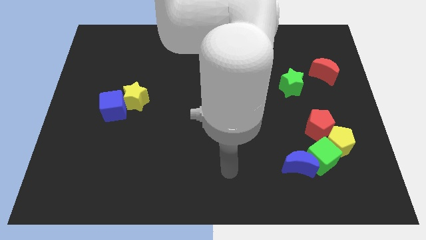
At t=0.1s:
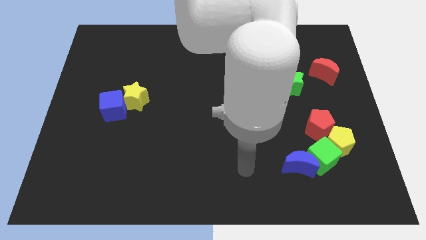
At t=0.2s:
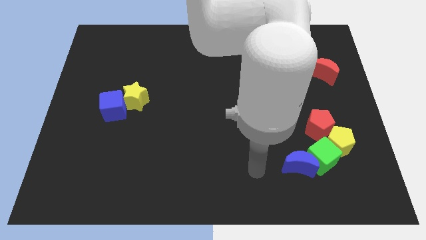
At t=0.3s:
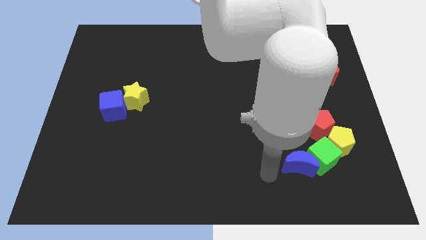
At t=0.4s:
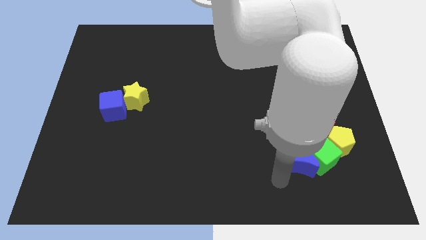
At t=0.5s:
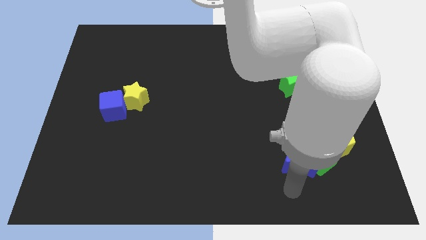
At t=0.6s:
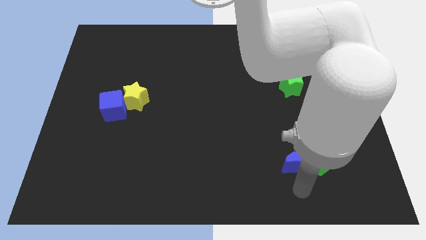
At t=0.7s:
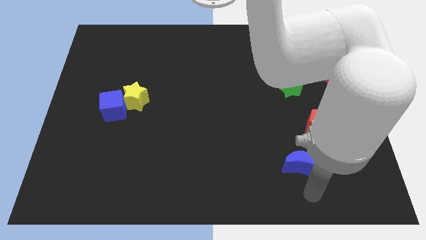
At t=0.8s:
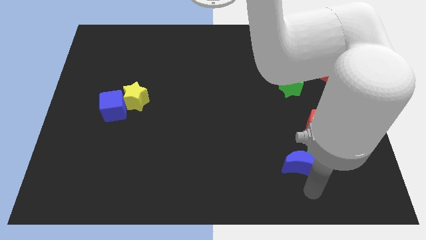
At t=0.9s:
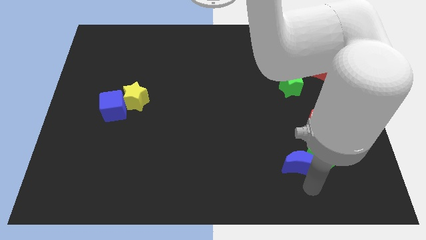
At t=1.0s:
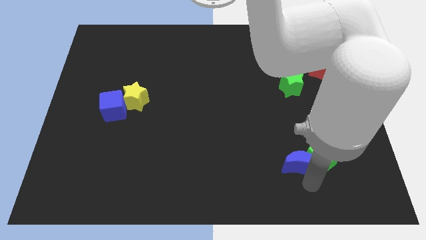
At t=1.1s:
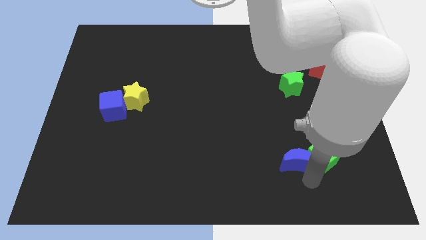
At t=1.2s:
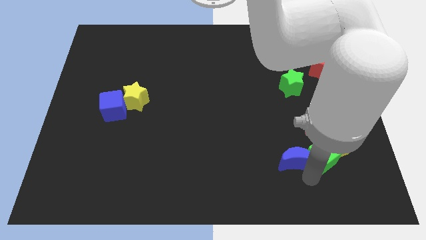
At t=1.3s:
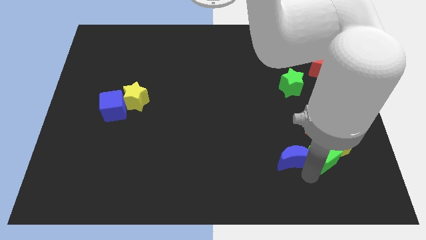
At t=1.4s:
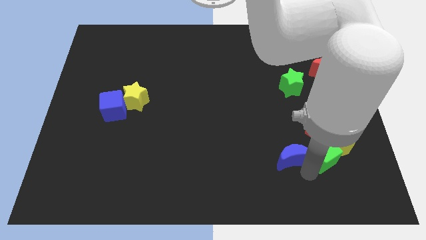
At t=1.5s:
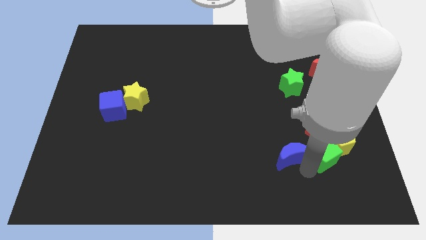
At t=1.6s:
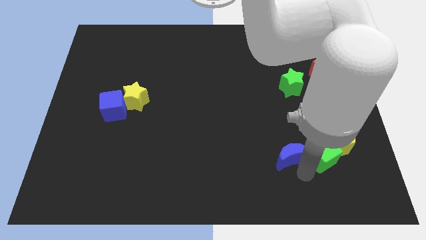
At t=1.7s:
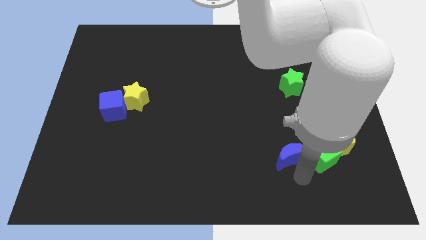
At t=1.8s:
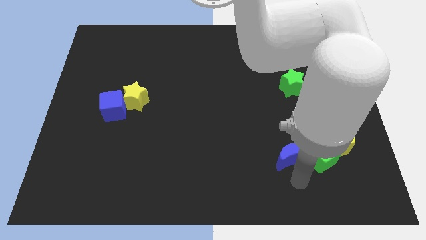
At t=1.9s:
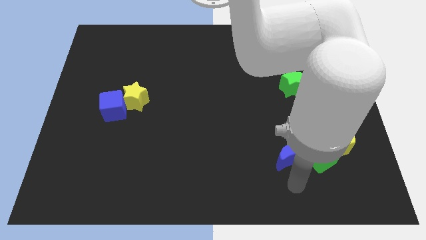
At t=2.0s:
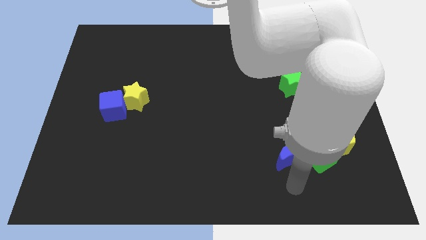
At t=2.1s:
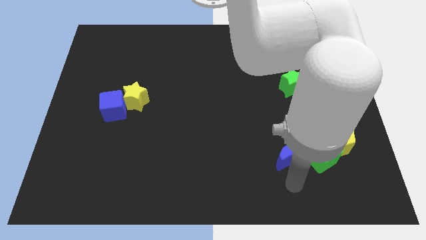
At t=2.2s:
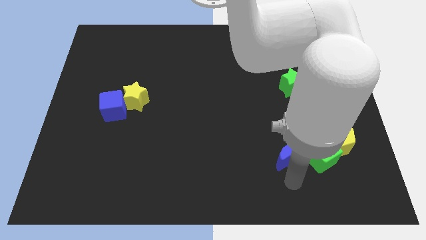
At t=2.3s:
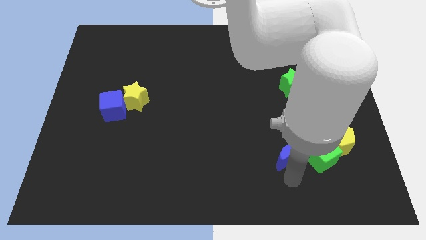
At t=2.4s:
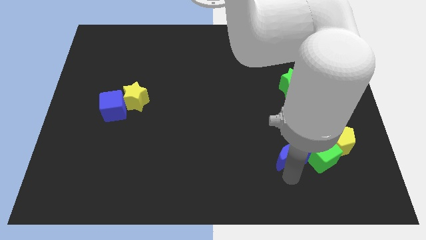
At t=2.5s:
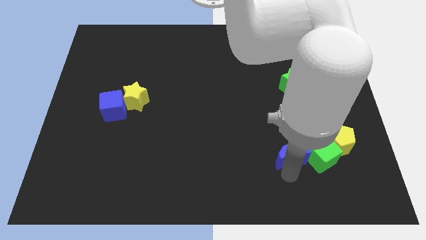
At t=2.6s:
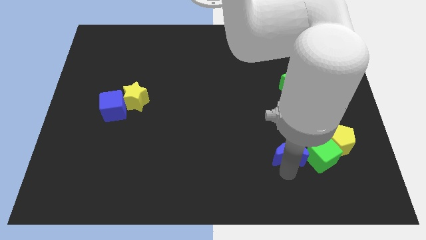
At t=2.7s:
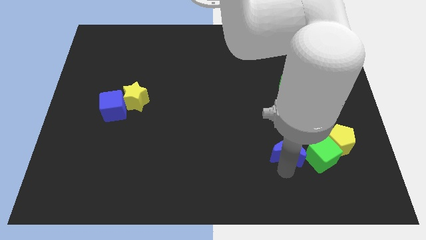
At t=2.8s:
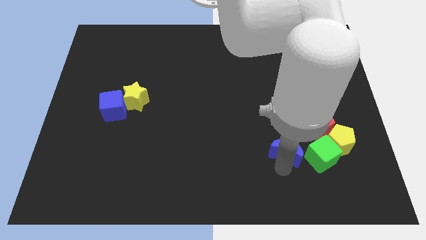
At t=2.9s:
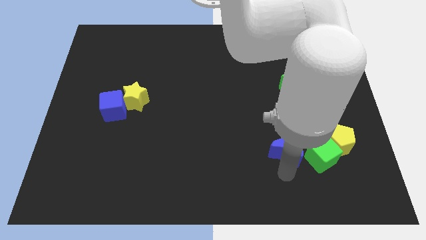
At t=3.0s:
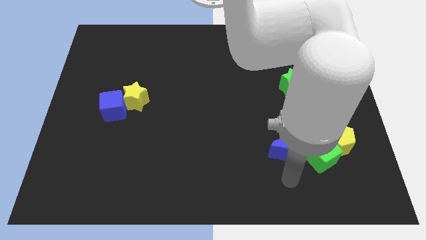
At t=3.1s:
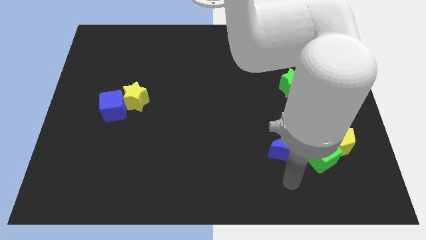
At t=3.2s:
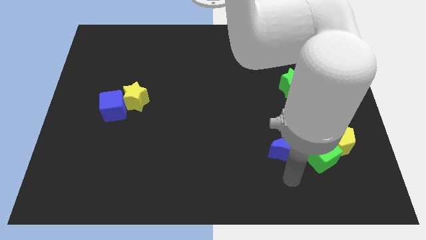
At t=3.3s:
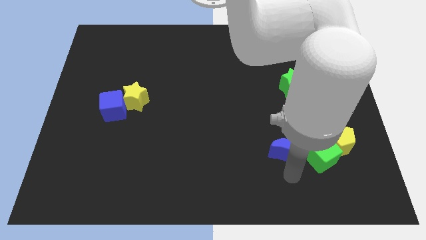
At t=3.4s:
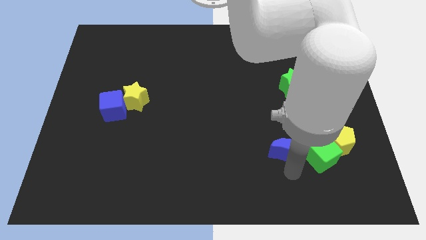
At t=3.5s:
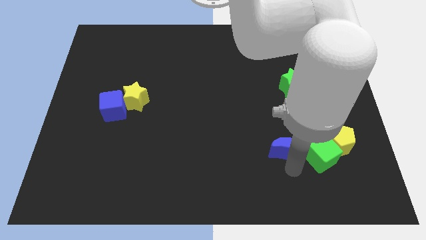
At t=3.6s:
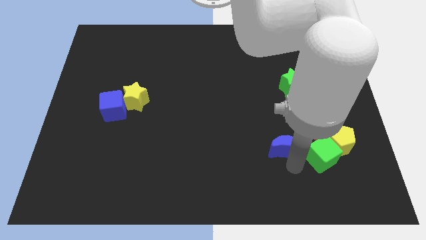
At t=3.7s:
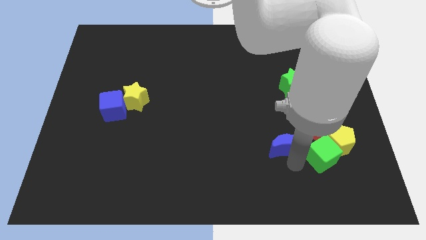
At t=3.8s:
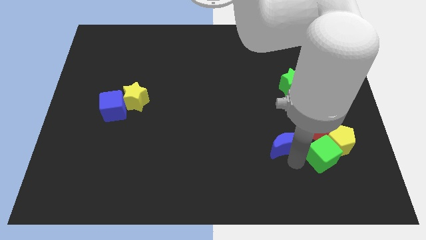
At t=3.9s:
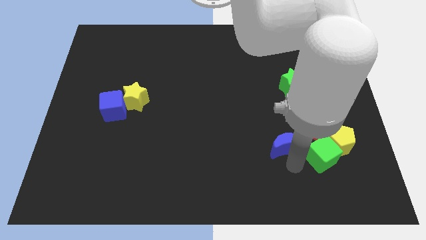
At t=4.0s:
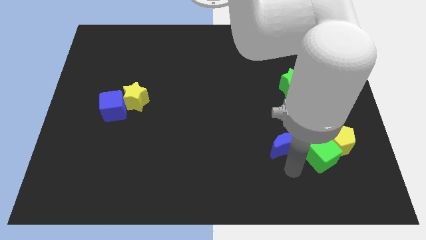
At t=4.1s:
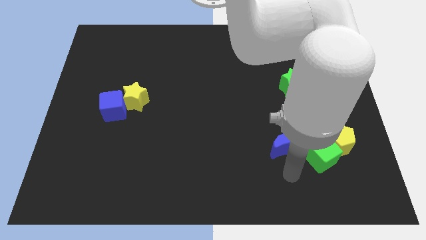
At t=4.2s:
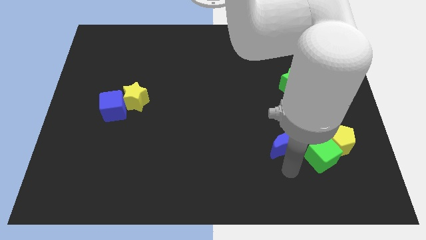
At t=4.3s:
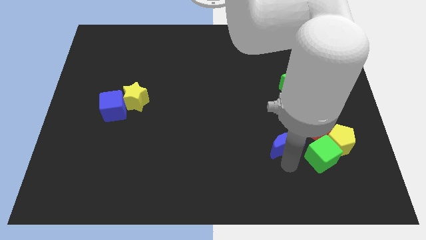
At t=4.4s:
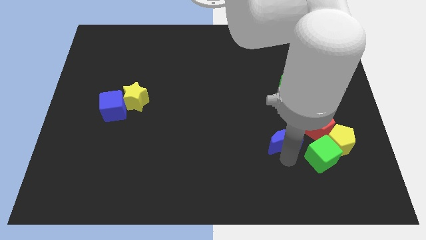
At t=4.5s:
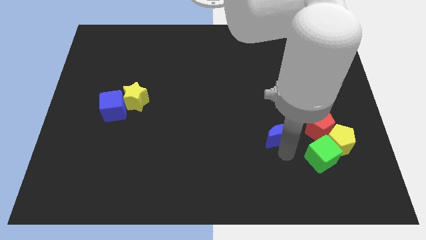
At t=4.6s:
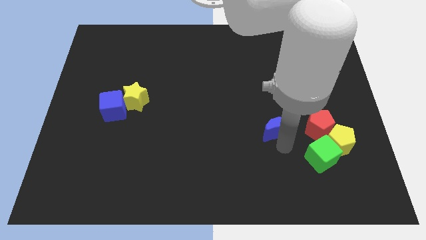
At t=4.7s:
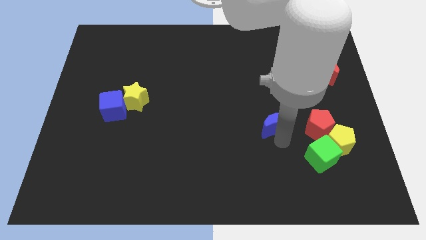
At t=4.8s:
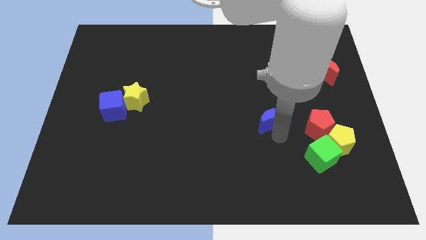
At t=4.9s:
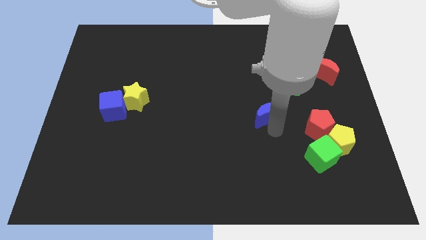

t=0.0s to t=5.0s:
slide the blue moon to the bottom left side of the green star

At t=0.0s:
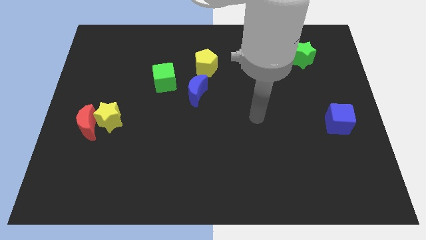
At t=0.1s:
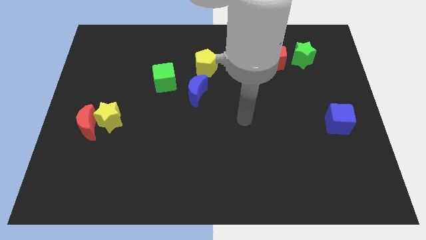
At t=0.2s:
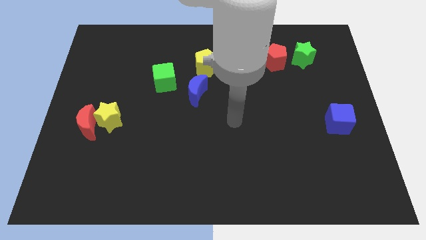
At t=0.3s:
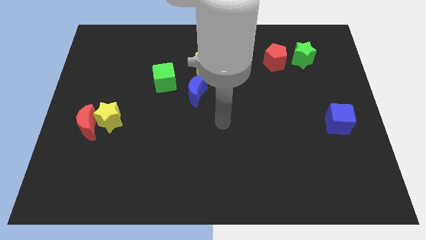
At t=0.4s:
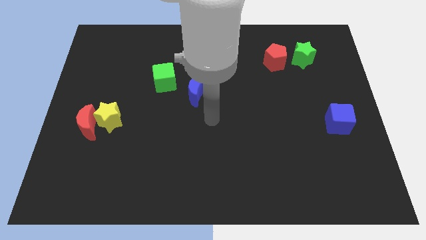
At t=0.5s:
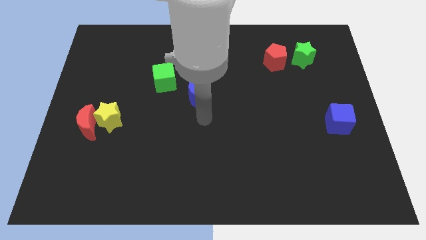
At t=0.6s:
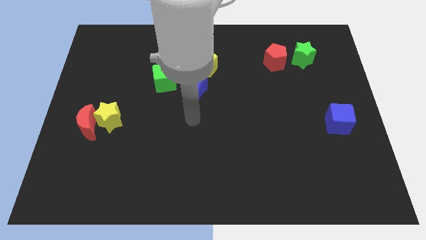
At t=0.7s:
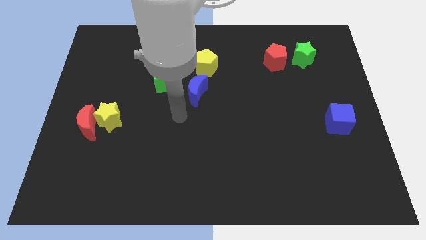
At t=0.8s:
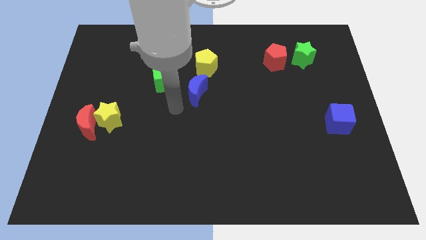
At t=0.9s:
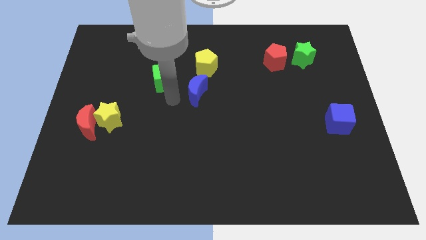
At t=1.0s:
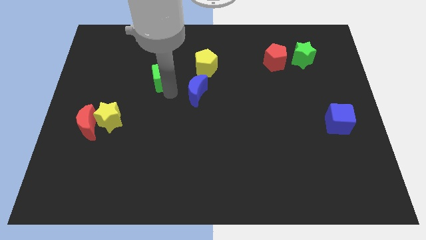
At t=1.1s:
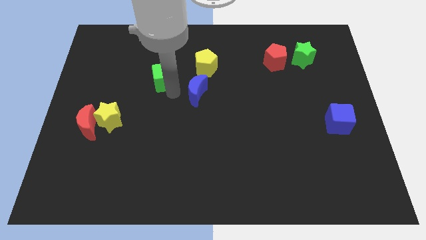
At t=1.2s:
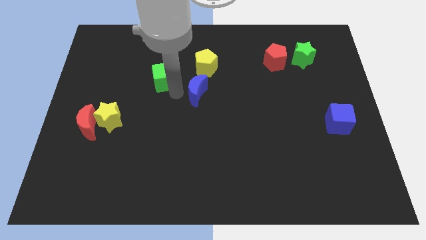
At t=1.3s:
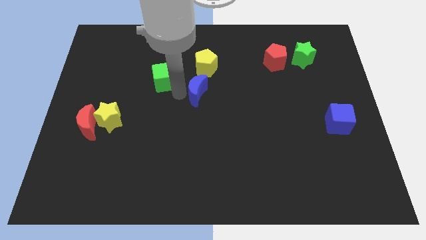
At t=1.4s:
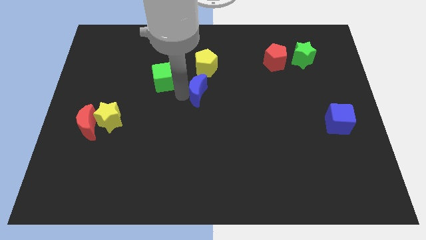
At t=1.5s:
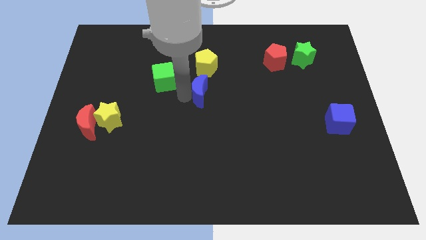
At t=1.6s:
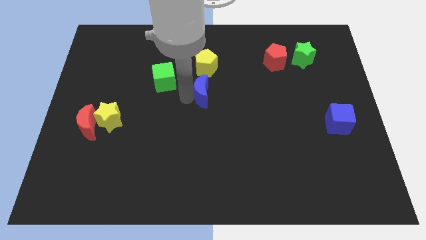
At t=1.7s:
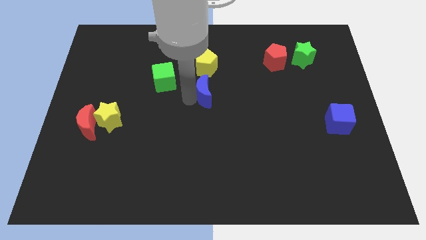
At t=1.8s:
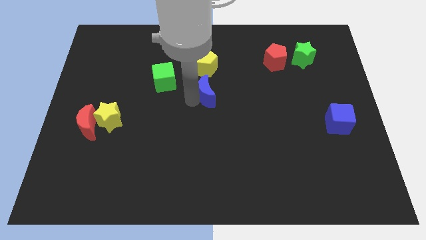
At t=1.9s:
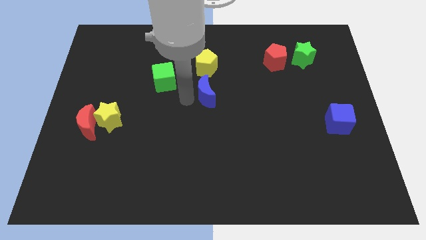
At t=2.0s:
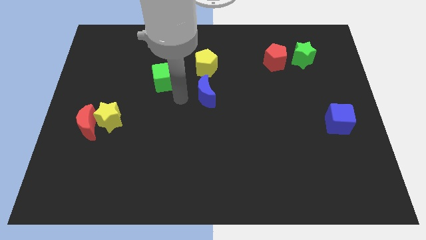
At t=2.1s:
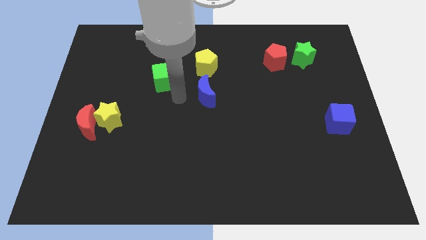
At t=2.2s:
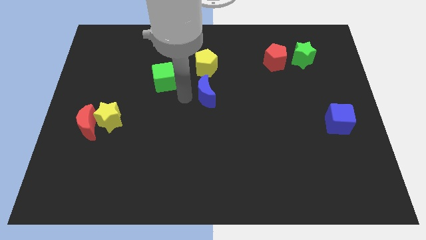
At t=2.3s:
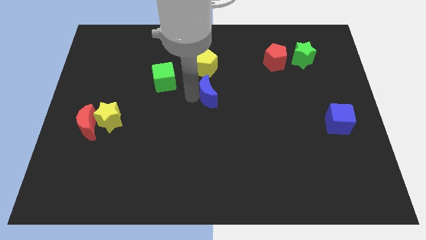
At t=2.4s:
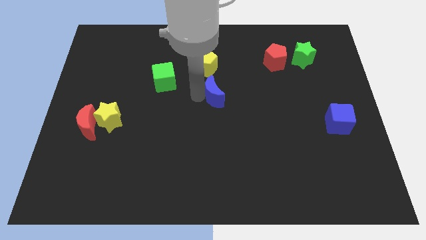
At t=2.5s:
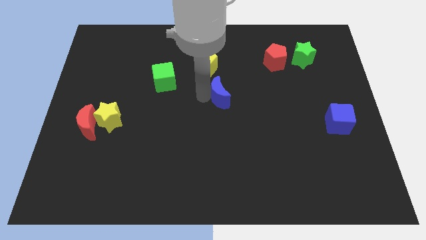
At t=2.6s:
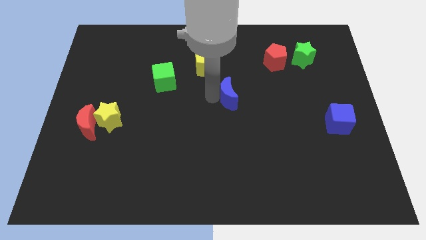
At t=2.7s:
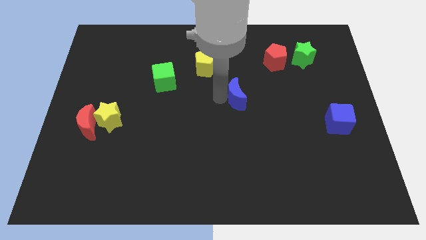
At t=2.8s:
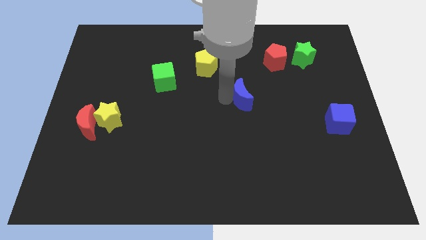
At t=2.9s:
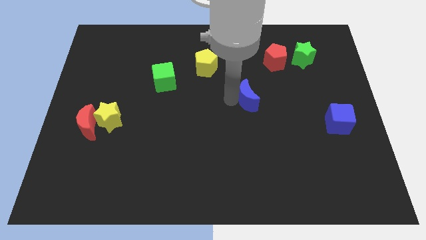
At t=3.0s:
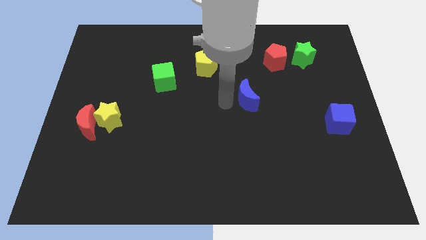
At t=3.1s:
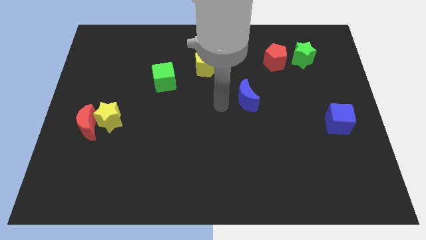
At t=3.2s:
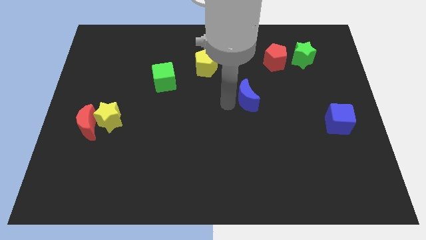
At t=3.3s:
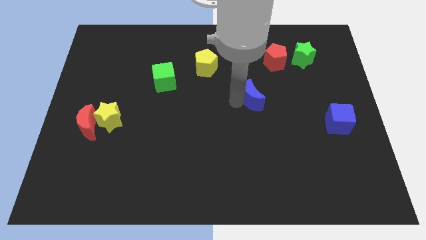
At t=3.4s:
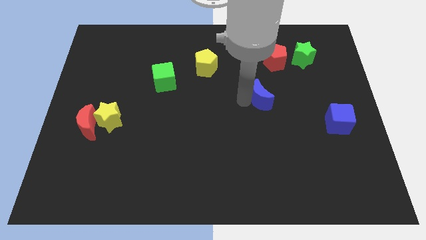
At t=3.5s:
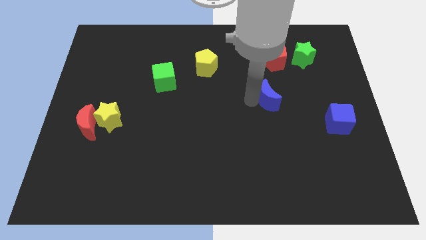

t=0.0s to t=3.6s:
push the blue moon to the bottom of the red pentagon
